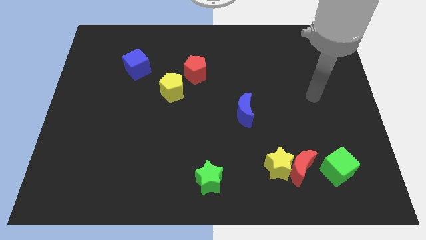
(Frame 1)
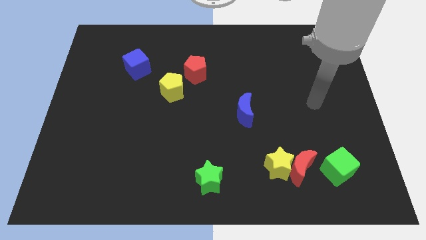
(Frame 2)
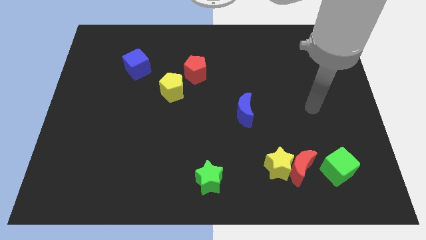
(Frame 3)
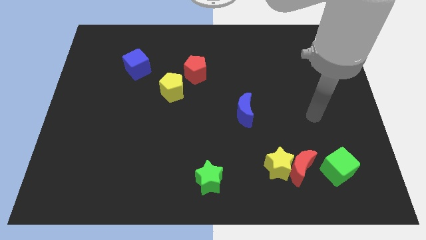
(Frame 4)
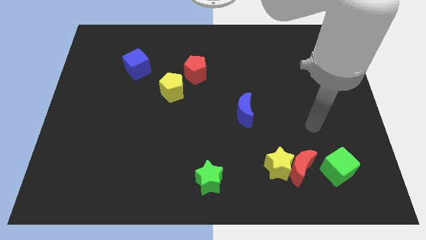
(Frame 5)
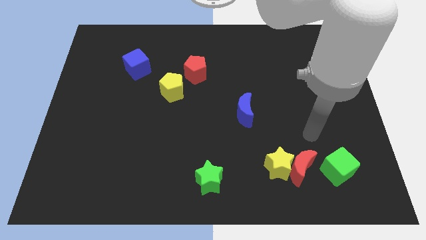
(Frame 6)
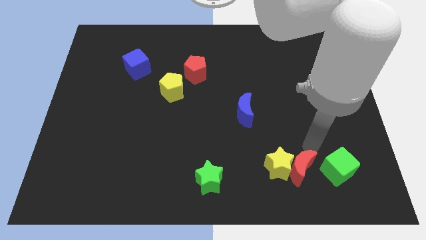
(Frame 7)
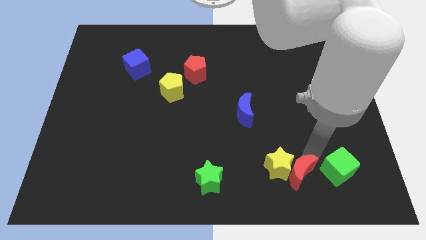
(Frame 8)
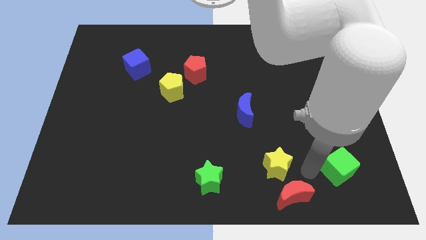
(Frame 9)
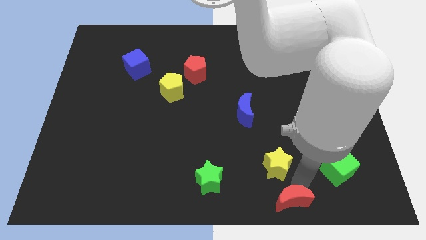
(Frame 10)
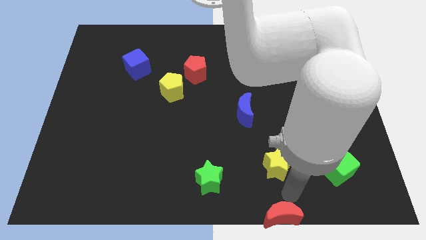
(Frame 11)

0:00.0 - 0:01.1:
pull the yellow star apart from the red moon

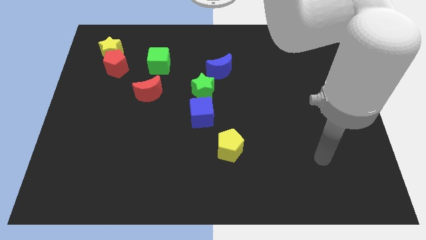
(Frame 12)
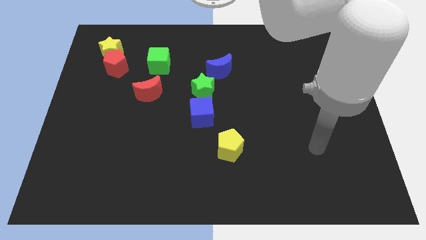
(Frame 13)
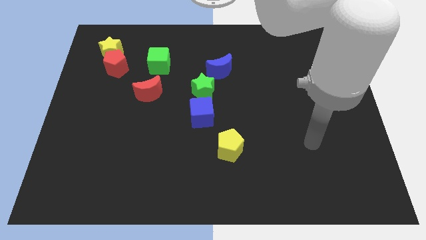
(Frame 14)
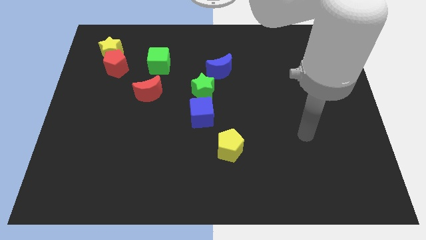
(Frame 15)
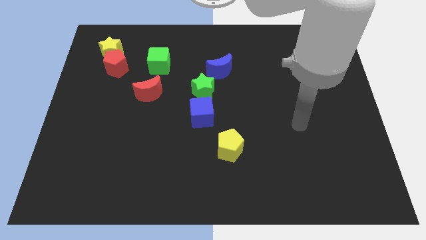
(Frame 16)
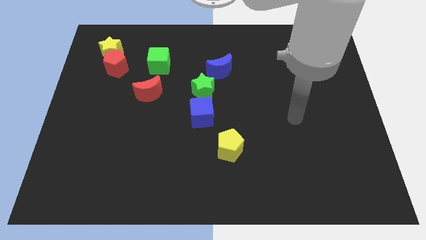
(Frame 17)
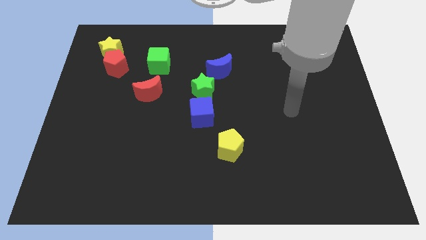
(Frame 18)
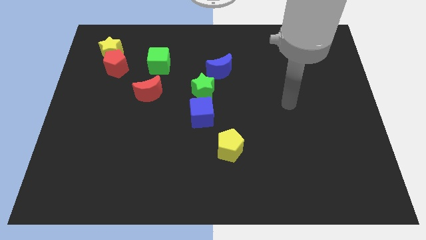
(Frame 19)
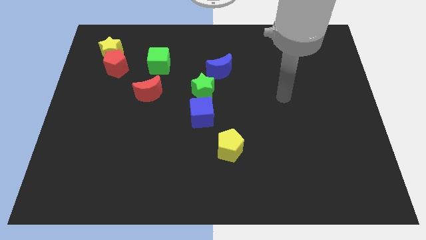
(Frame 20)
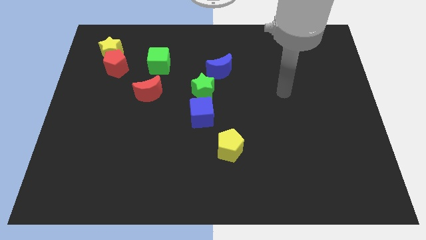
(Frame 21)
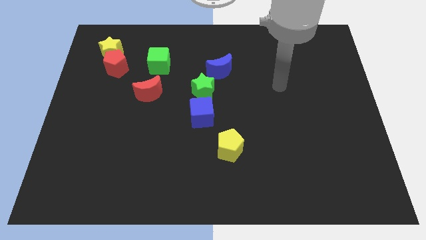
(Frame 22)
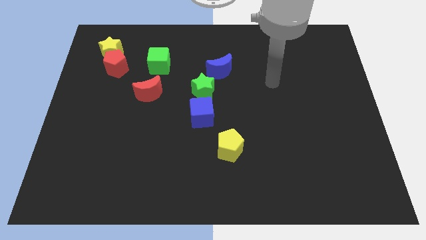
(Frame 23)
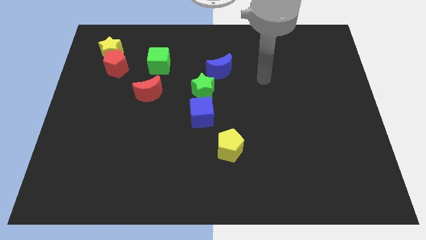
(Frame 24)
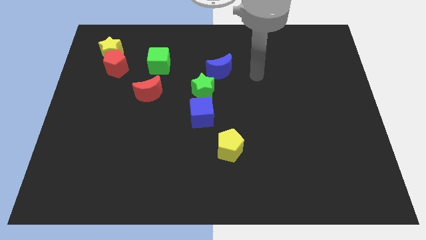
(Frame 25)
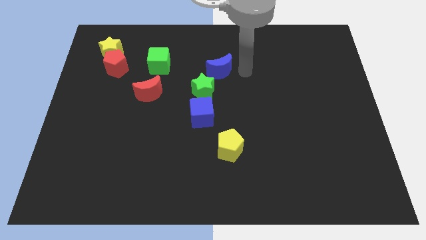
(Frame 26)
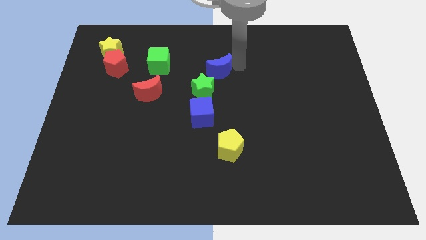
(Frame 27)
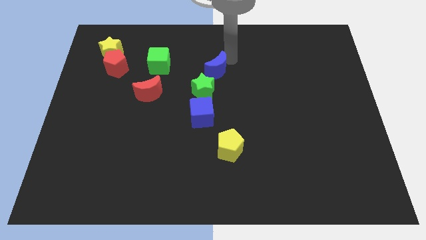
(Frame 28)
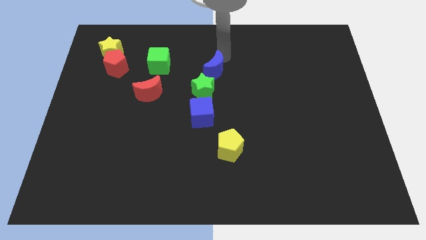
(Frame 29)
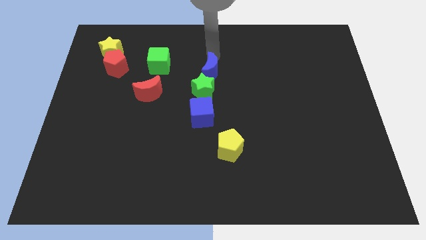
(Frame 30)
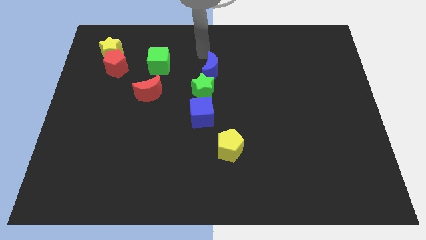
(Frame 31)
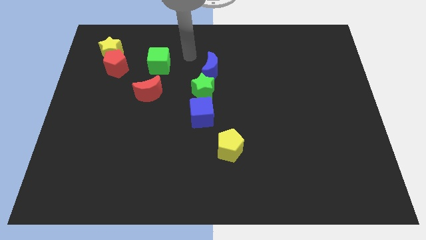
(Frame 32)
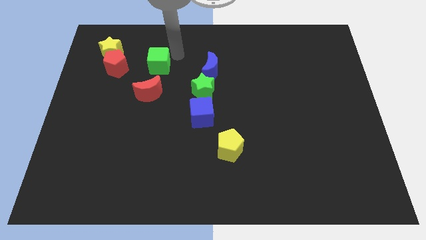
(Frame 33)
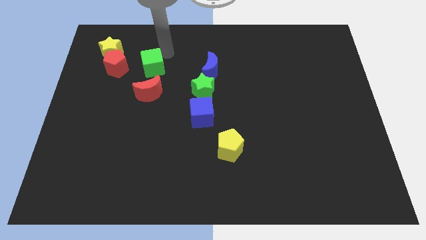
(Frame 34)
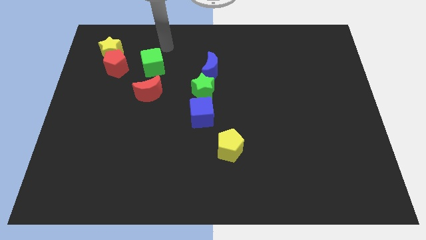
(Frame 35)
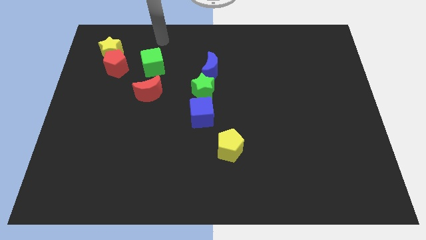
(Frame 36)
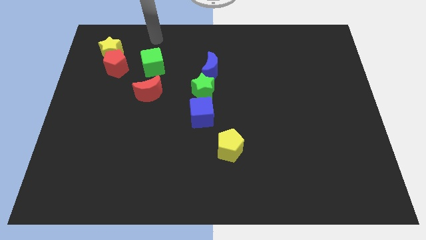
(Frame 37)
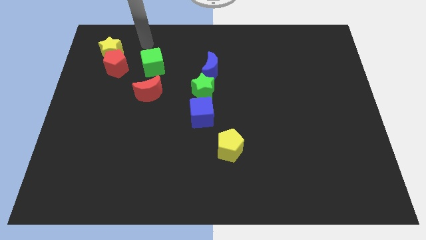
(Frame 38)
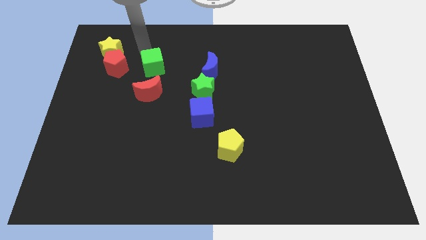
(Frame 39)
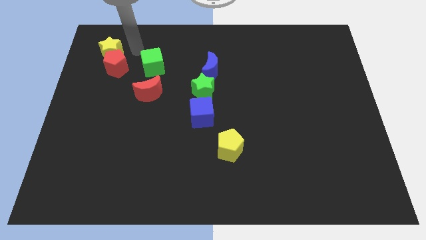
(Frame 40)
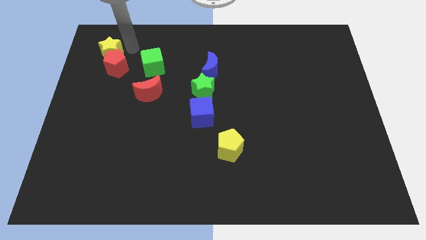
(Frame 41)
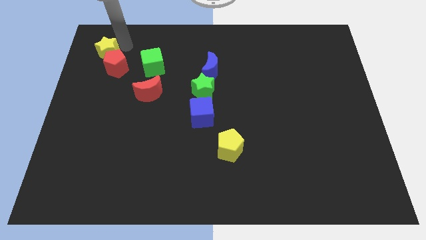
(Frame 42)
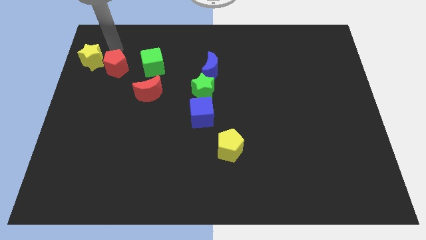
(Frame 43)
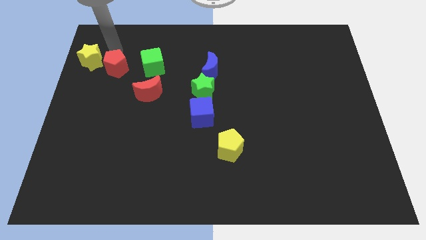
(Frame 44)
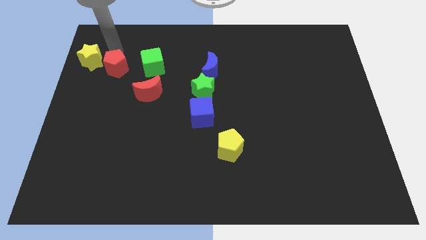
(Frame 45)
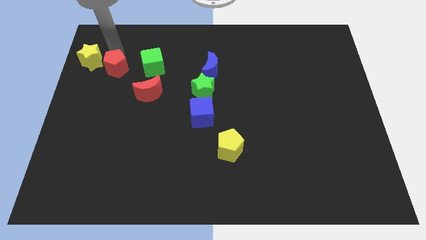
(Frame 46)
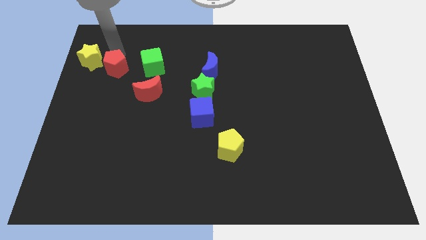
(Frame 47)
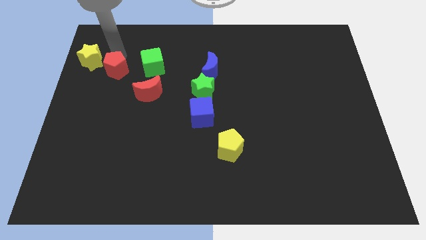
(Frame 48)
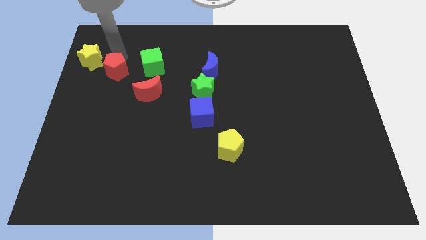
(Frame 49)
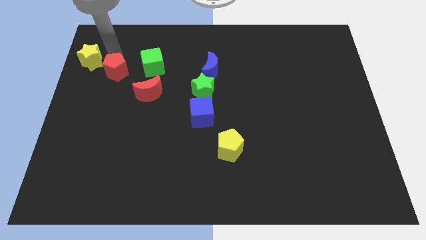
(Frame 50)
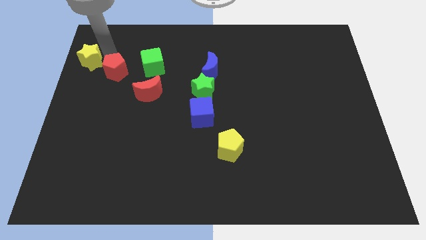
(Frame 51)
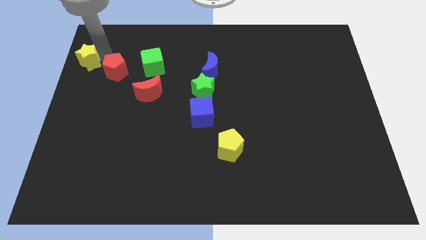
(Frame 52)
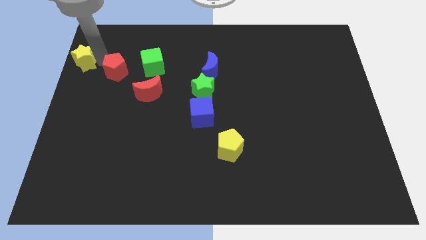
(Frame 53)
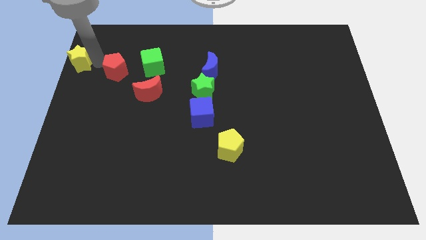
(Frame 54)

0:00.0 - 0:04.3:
separate the red pentagon from the yellow star

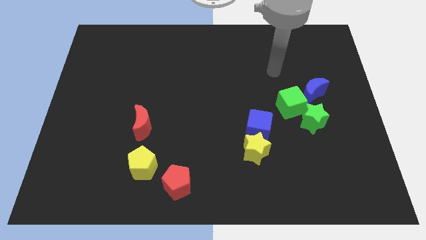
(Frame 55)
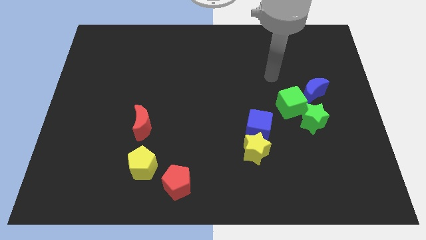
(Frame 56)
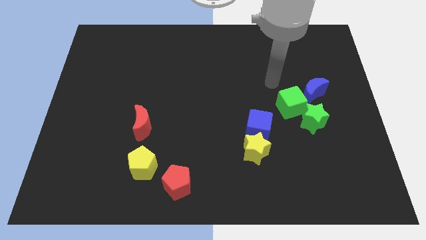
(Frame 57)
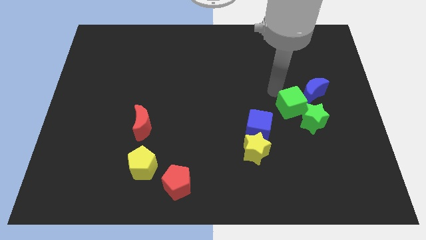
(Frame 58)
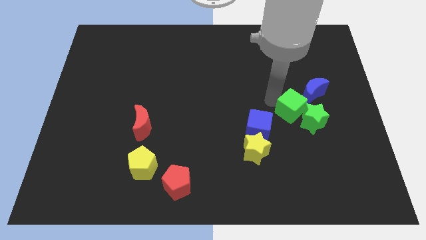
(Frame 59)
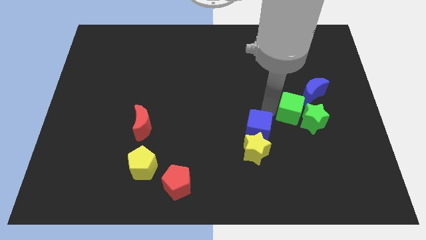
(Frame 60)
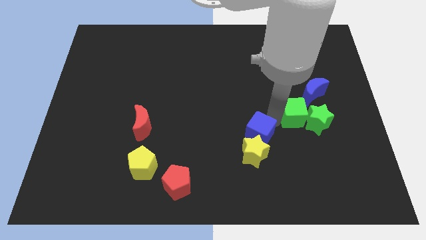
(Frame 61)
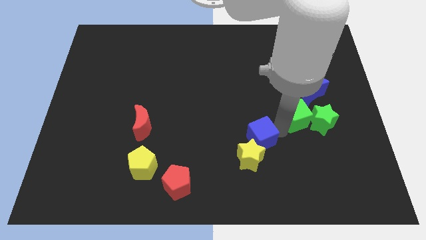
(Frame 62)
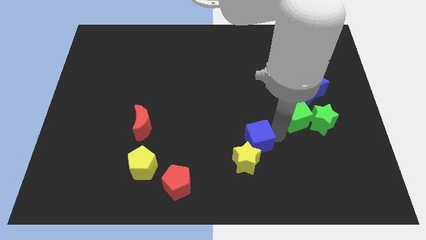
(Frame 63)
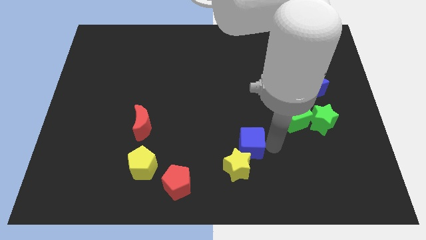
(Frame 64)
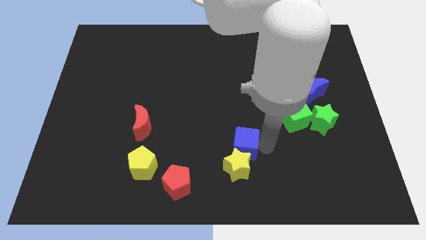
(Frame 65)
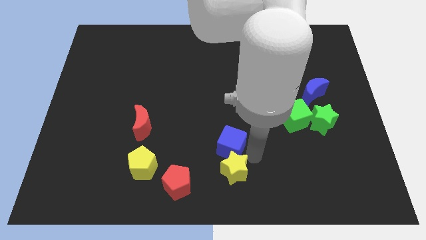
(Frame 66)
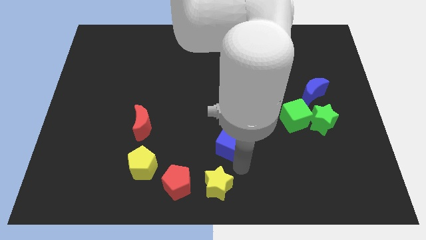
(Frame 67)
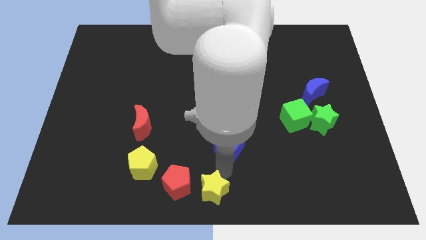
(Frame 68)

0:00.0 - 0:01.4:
separate the blue cube from the yellow star

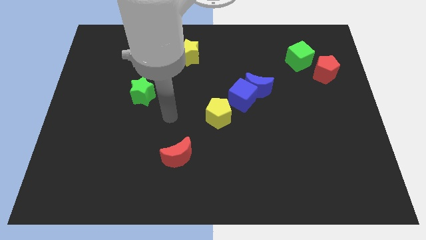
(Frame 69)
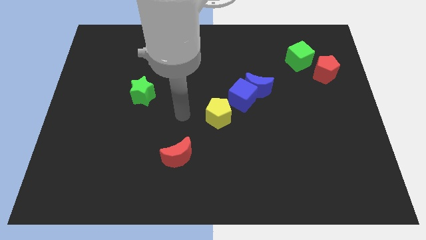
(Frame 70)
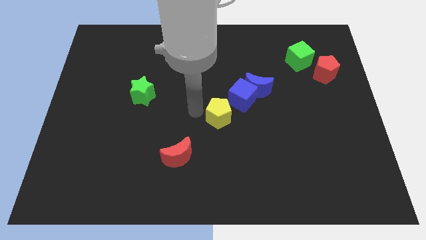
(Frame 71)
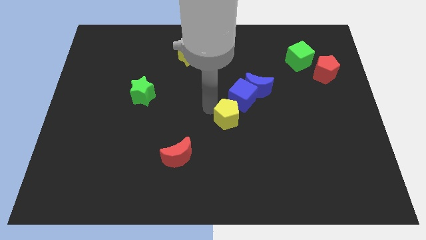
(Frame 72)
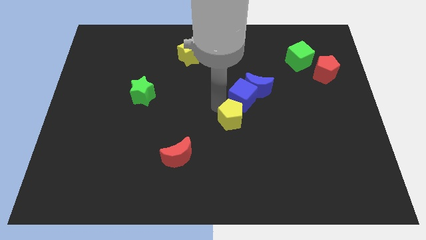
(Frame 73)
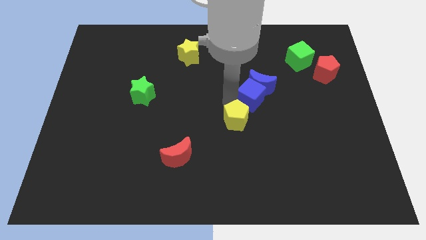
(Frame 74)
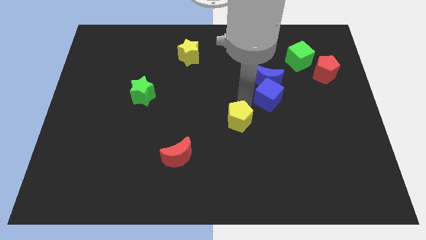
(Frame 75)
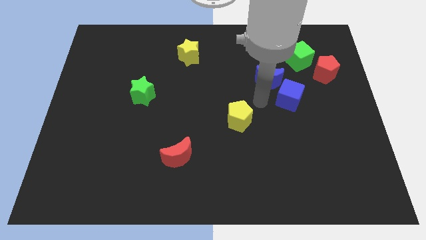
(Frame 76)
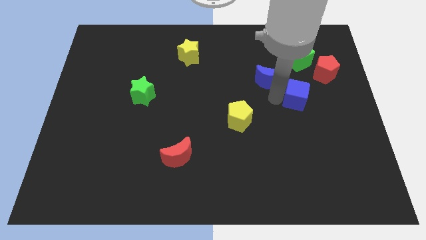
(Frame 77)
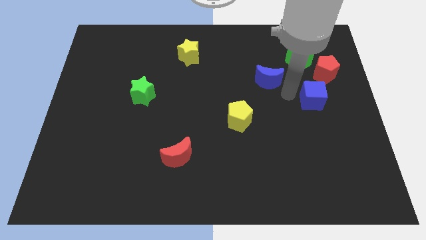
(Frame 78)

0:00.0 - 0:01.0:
pull the blue moon apart from the blue cube

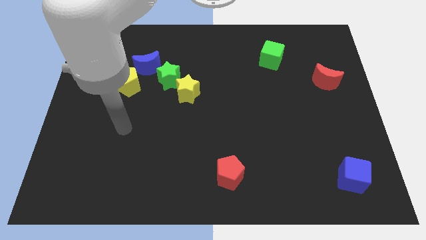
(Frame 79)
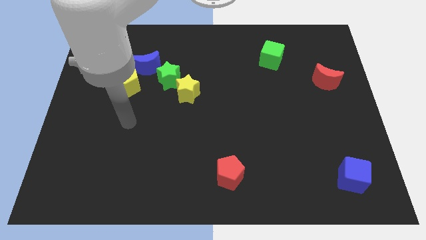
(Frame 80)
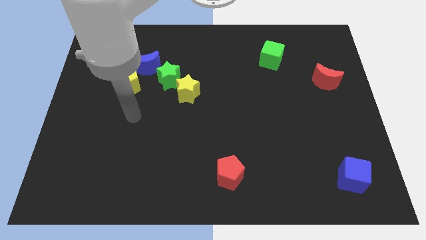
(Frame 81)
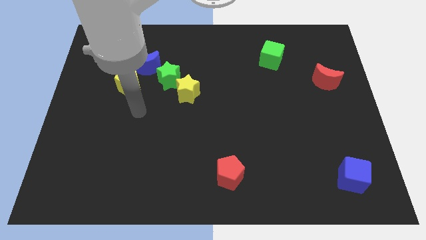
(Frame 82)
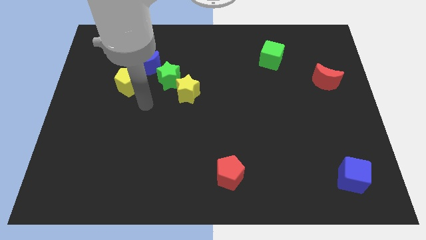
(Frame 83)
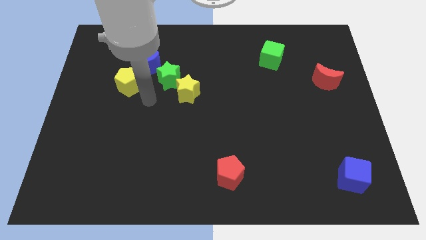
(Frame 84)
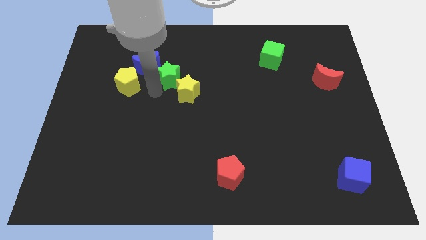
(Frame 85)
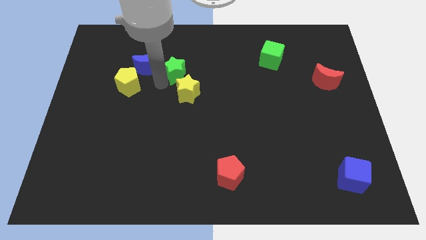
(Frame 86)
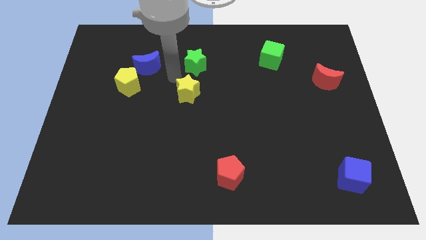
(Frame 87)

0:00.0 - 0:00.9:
move the yellow star away from the green star

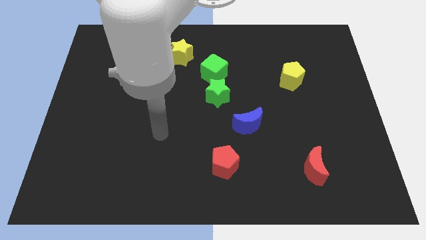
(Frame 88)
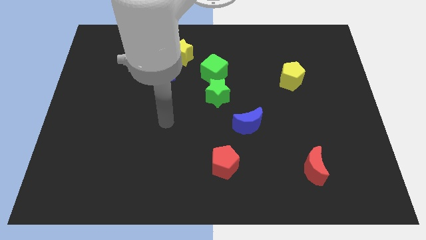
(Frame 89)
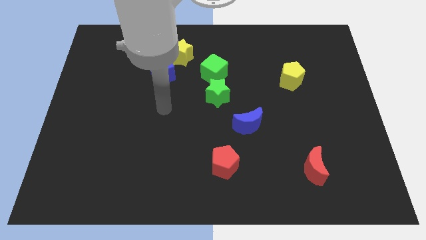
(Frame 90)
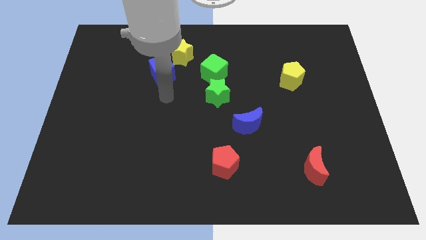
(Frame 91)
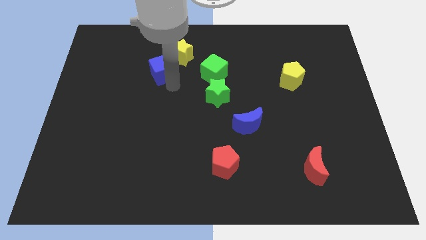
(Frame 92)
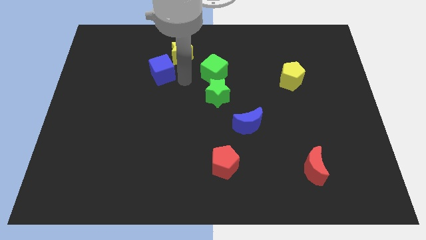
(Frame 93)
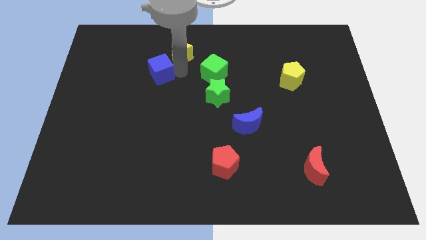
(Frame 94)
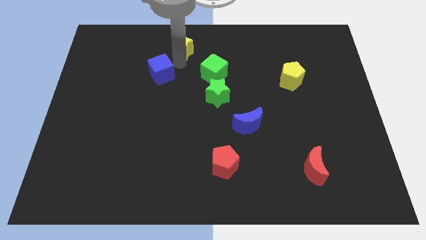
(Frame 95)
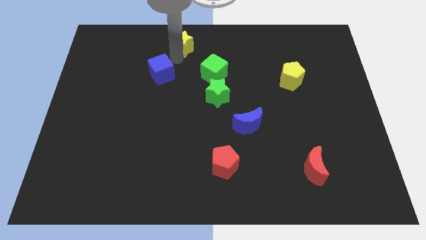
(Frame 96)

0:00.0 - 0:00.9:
move the blue cube away from the yellow star
